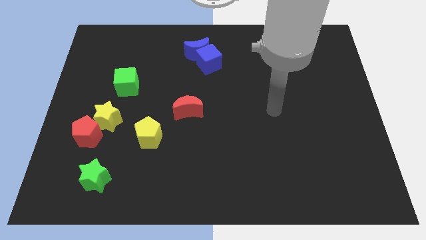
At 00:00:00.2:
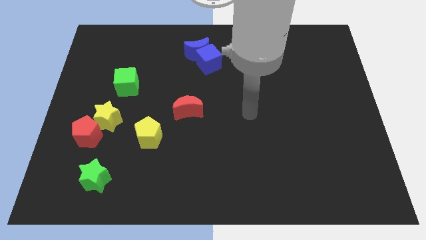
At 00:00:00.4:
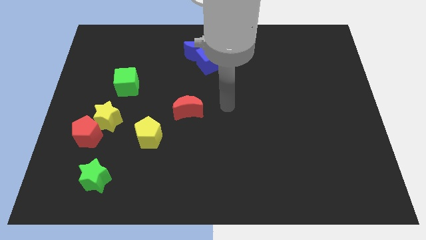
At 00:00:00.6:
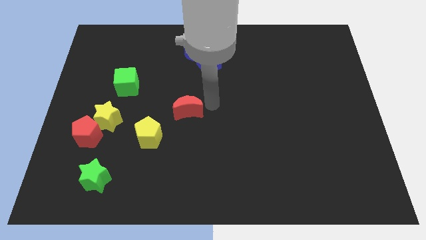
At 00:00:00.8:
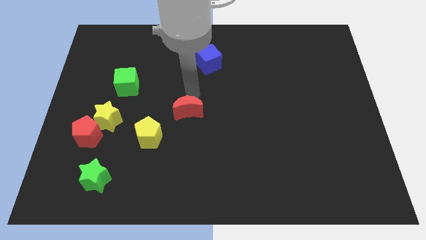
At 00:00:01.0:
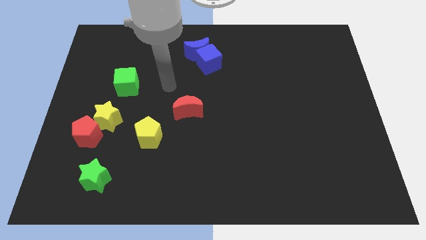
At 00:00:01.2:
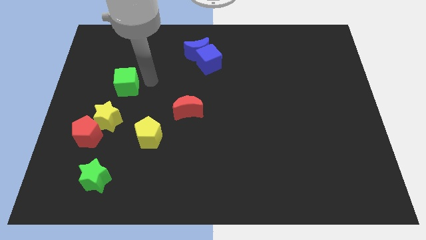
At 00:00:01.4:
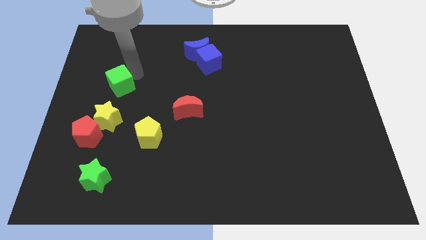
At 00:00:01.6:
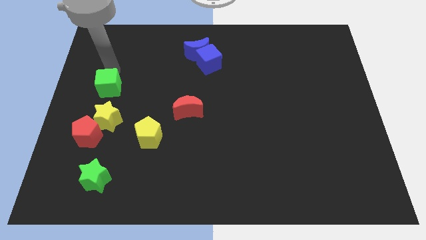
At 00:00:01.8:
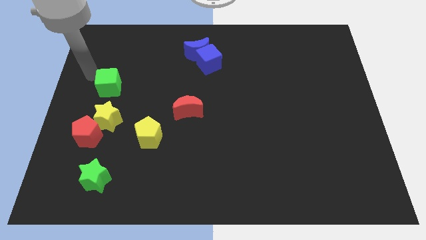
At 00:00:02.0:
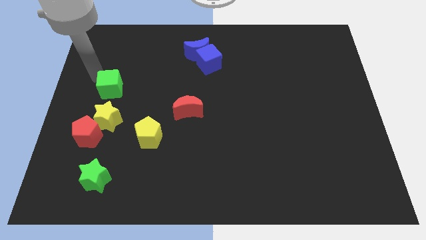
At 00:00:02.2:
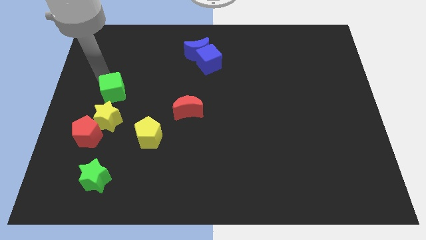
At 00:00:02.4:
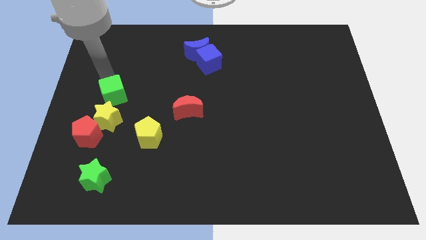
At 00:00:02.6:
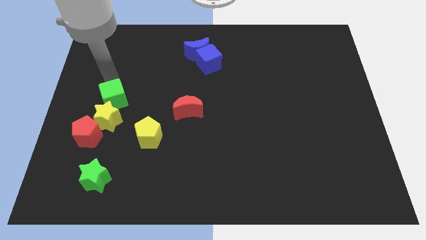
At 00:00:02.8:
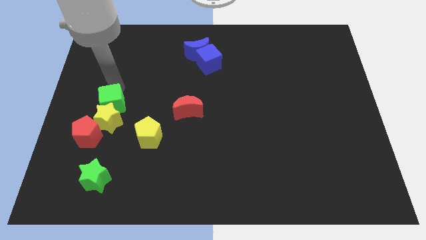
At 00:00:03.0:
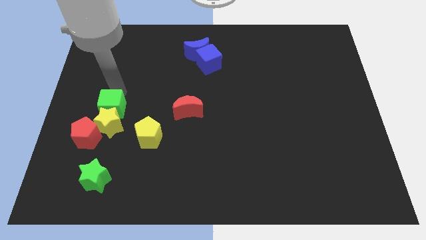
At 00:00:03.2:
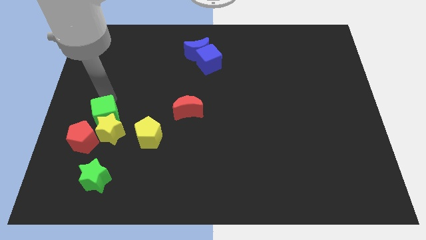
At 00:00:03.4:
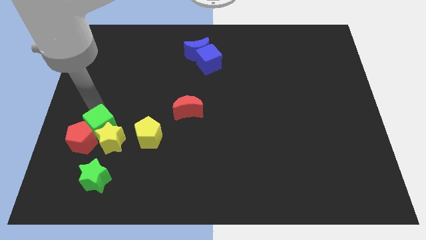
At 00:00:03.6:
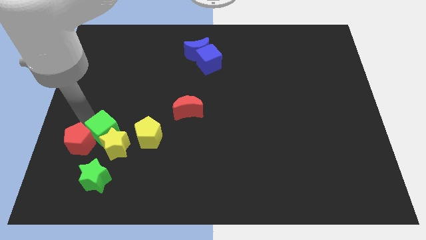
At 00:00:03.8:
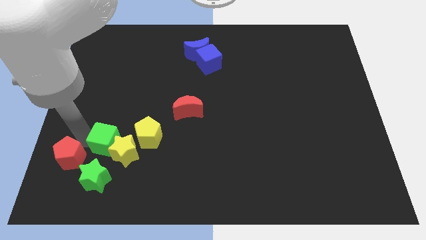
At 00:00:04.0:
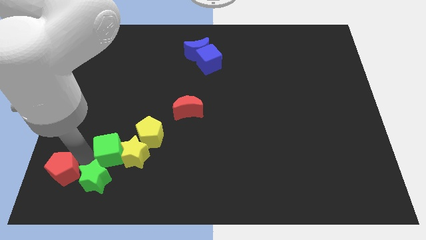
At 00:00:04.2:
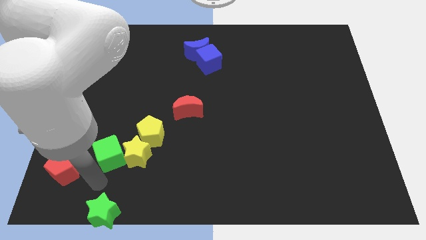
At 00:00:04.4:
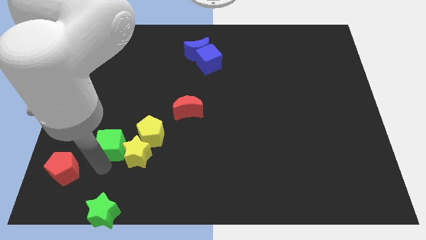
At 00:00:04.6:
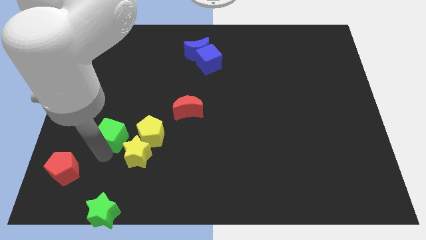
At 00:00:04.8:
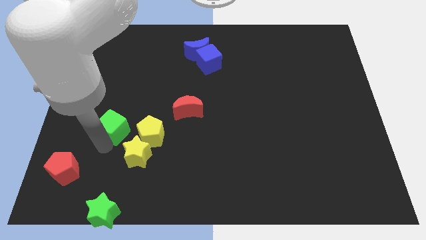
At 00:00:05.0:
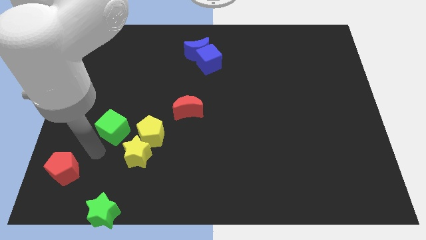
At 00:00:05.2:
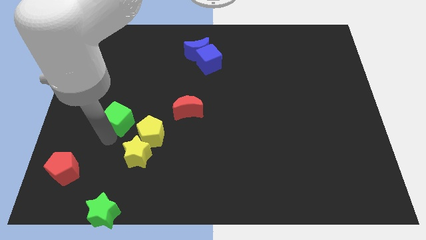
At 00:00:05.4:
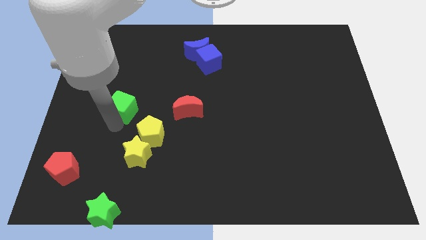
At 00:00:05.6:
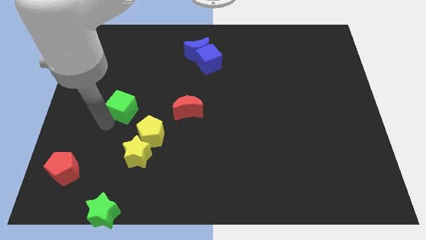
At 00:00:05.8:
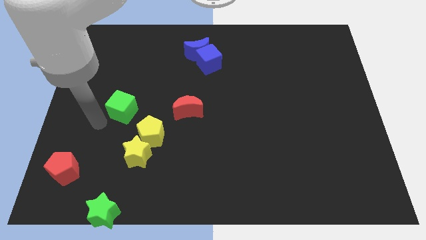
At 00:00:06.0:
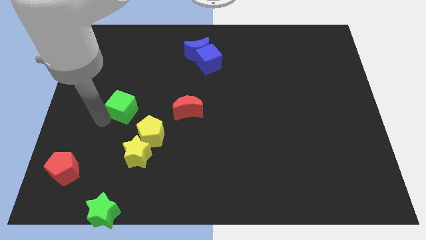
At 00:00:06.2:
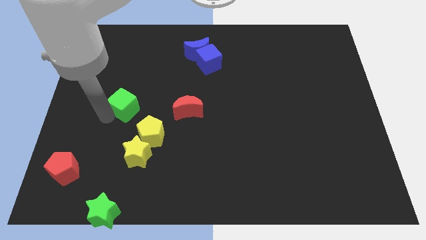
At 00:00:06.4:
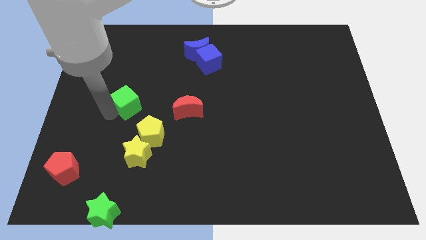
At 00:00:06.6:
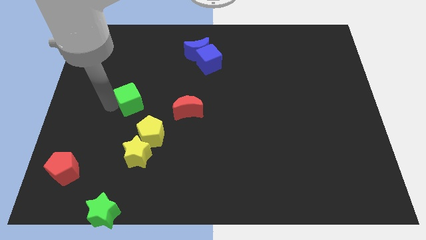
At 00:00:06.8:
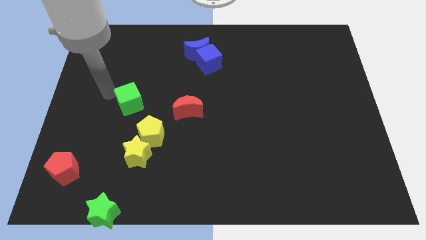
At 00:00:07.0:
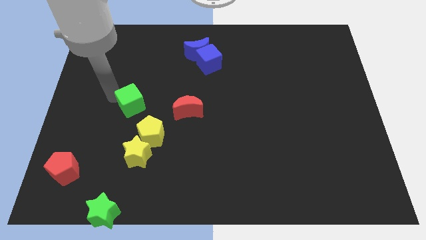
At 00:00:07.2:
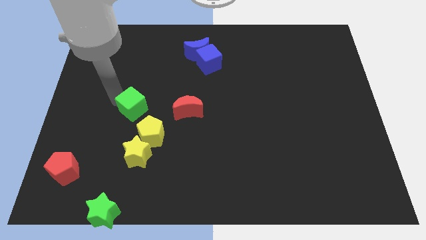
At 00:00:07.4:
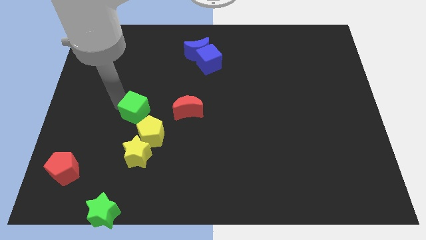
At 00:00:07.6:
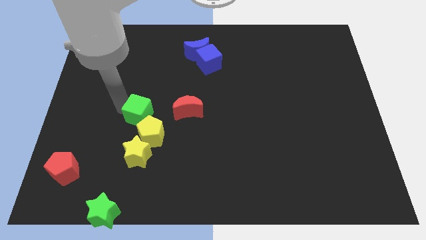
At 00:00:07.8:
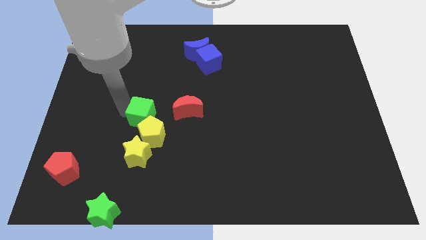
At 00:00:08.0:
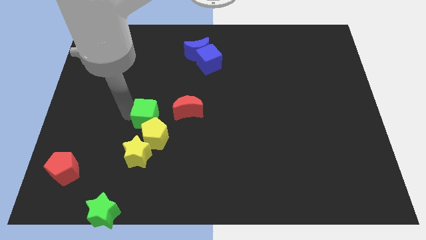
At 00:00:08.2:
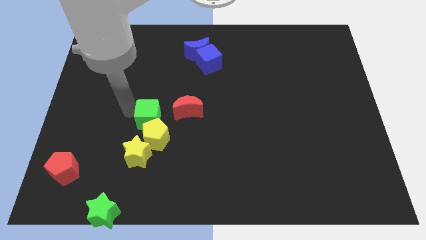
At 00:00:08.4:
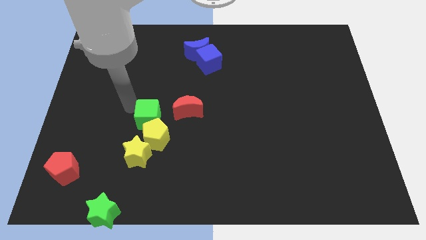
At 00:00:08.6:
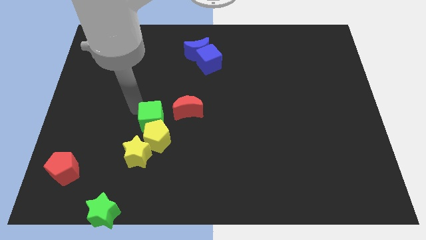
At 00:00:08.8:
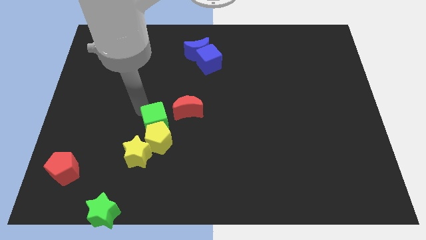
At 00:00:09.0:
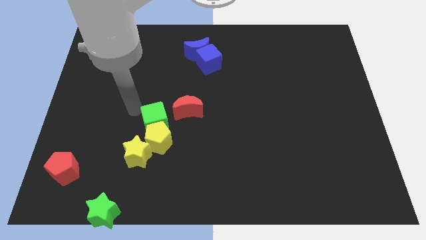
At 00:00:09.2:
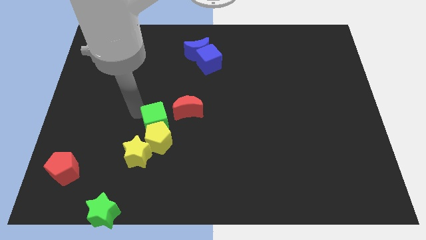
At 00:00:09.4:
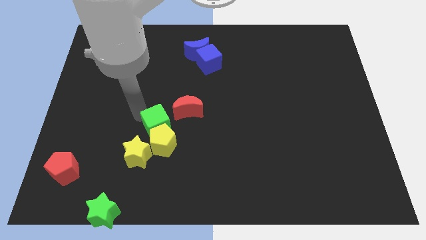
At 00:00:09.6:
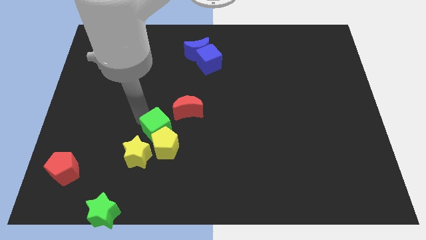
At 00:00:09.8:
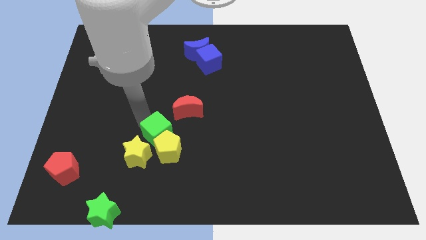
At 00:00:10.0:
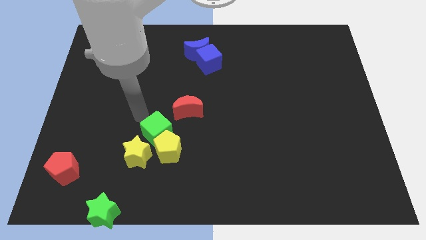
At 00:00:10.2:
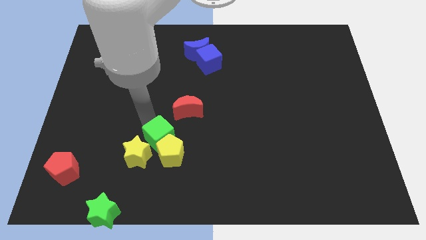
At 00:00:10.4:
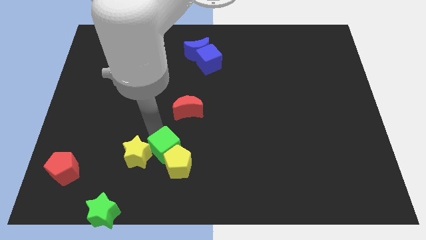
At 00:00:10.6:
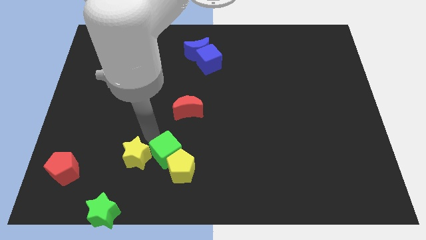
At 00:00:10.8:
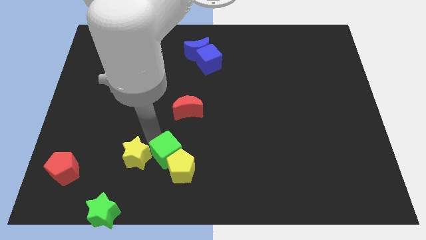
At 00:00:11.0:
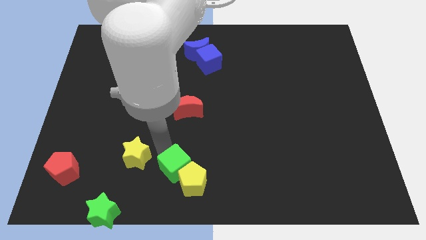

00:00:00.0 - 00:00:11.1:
slide the green cube to the bottom side
